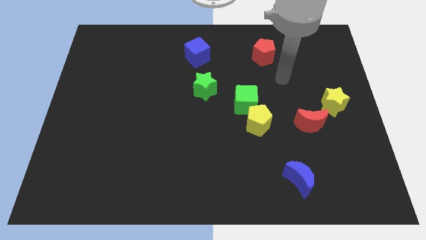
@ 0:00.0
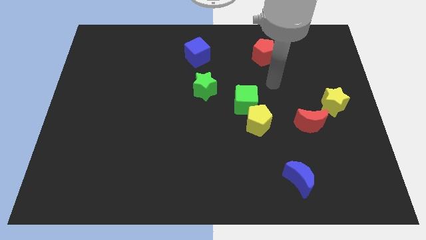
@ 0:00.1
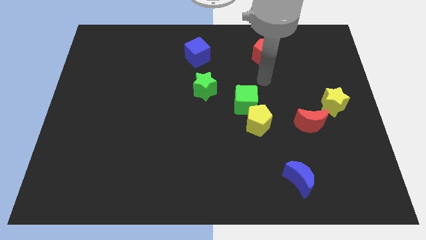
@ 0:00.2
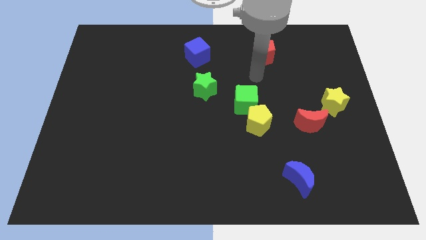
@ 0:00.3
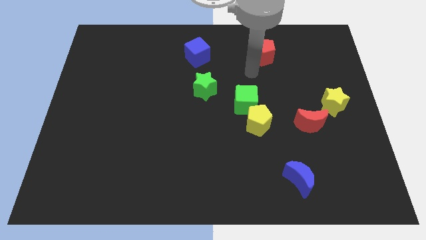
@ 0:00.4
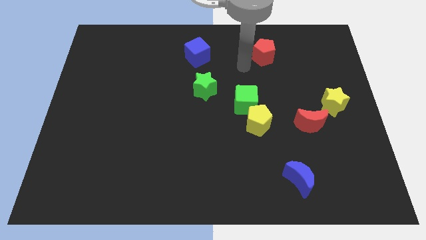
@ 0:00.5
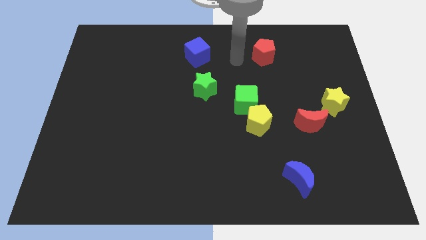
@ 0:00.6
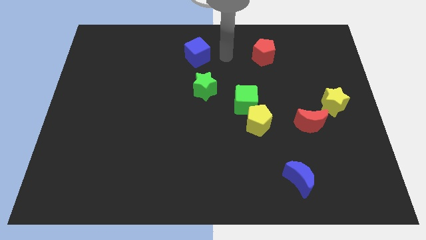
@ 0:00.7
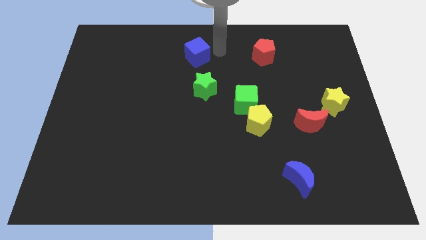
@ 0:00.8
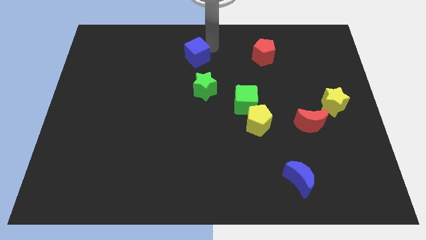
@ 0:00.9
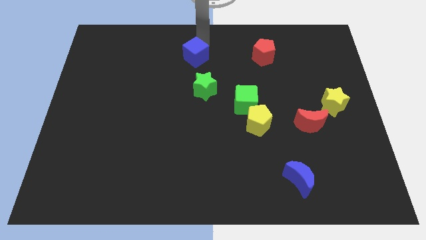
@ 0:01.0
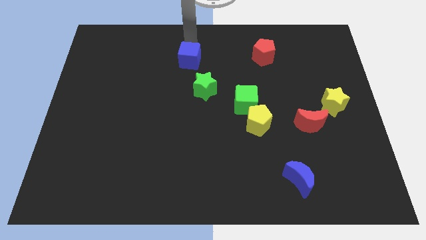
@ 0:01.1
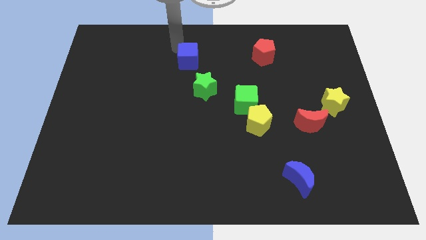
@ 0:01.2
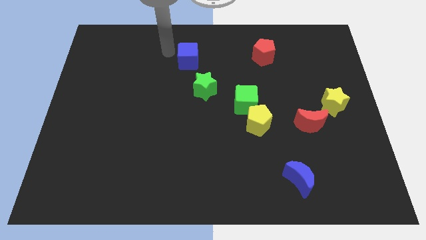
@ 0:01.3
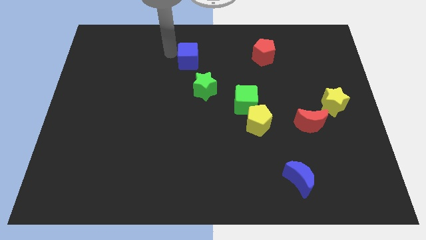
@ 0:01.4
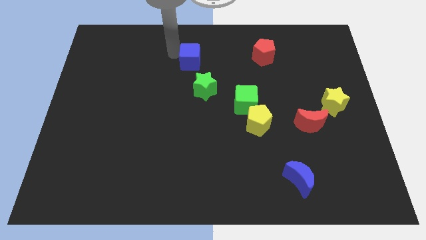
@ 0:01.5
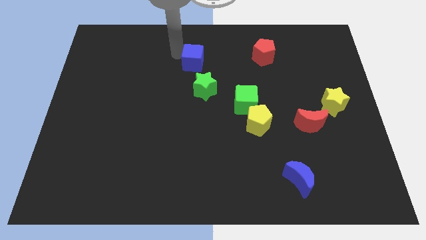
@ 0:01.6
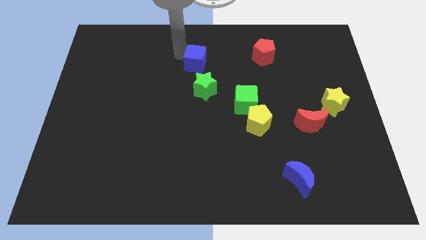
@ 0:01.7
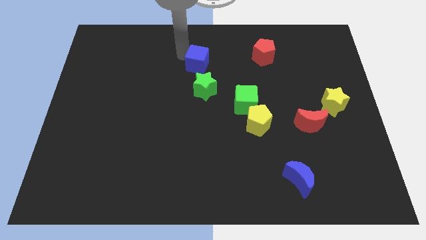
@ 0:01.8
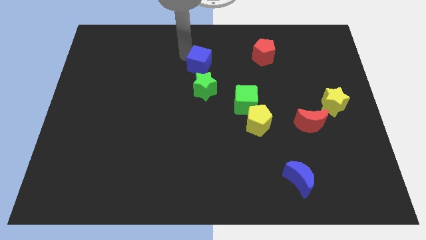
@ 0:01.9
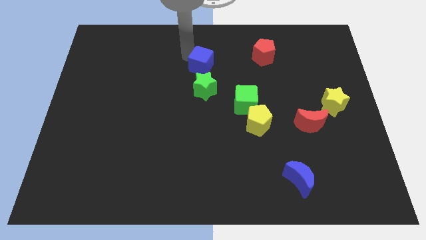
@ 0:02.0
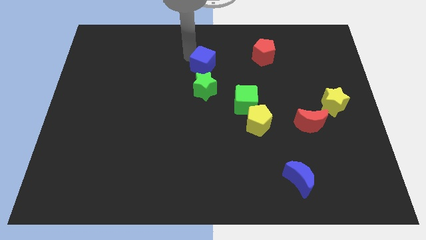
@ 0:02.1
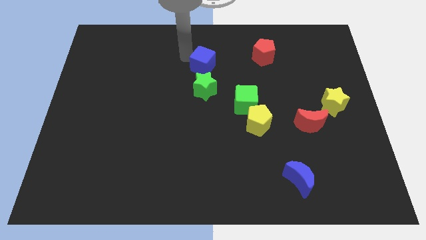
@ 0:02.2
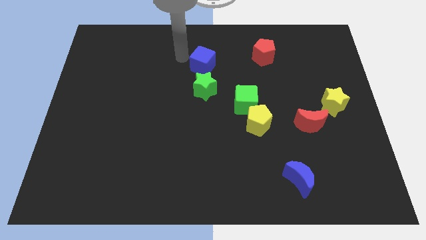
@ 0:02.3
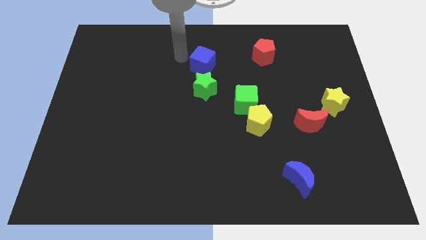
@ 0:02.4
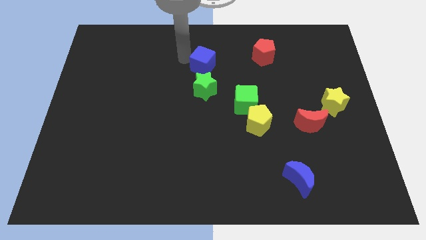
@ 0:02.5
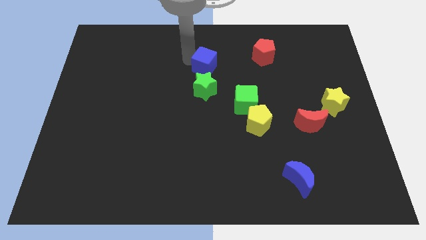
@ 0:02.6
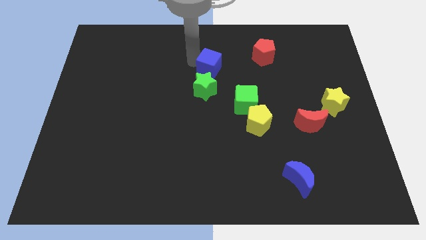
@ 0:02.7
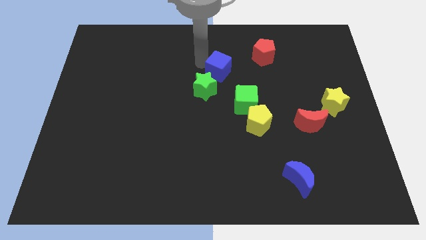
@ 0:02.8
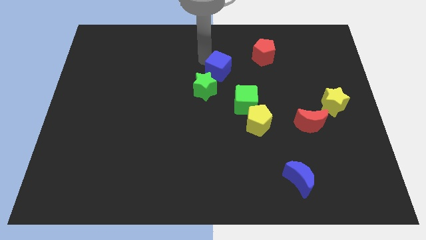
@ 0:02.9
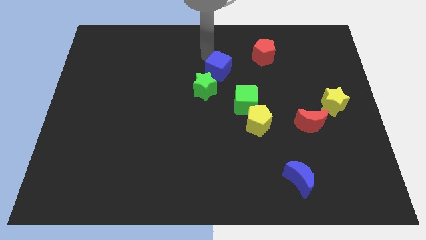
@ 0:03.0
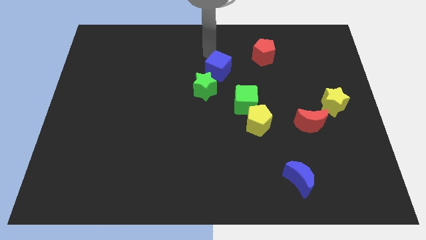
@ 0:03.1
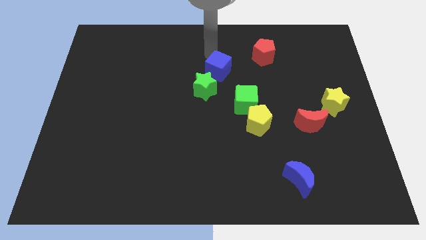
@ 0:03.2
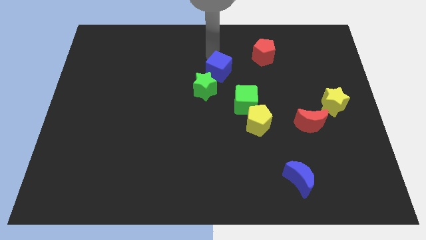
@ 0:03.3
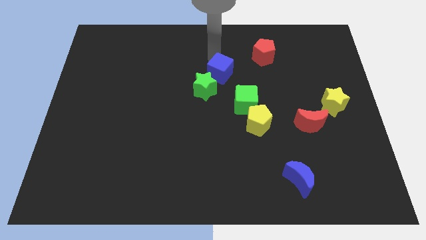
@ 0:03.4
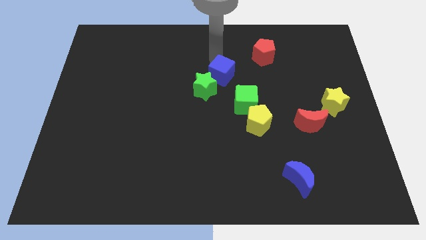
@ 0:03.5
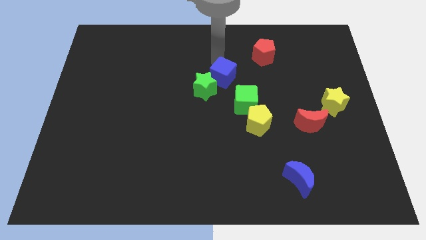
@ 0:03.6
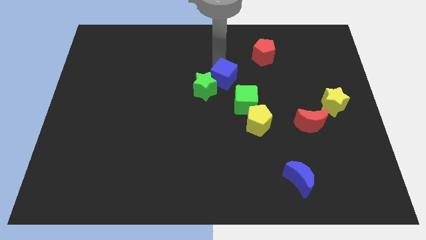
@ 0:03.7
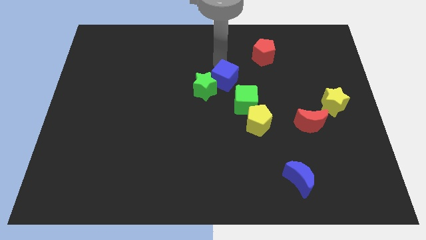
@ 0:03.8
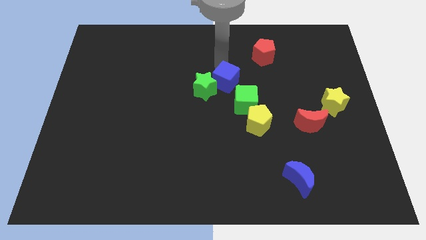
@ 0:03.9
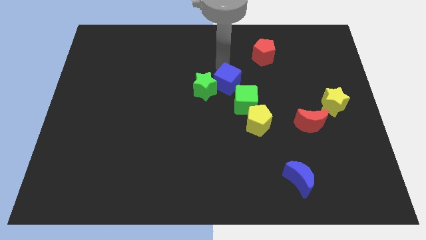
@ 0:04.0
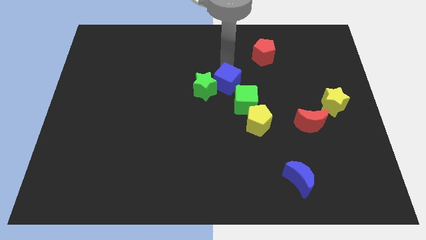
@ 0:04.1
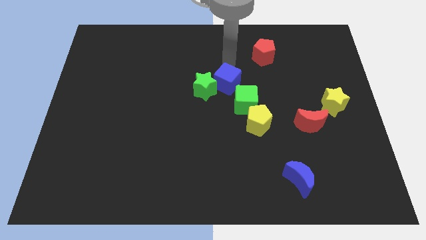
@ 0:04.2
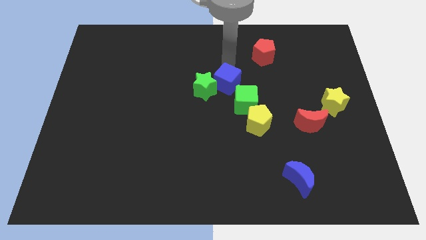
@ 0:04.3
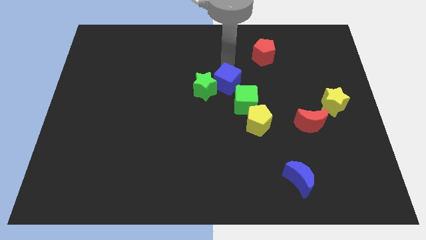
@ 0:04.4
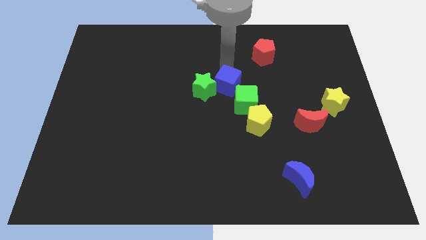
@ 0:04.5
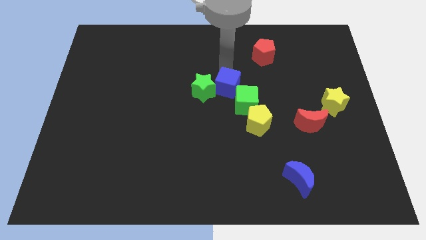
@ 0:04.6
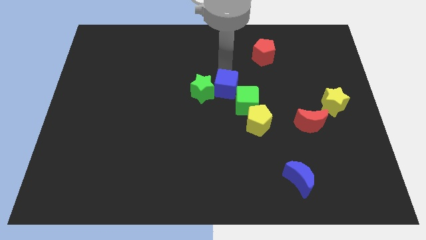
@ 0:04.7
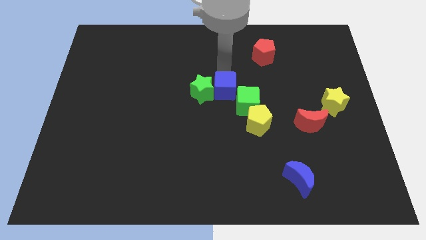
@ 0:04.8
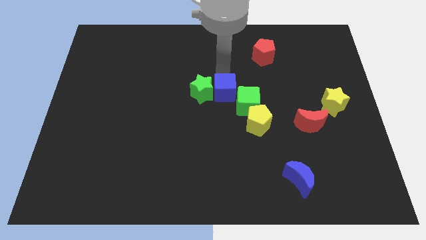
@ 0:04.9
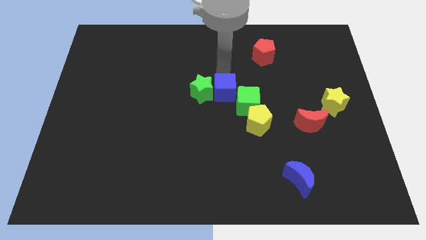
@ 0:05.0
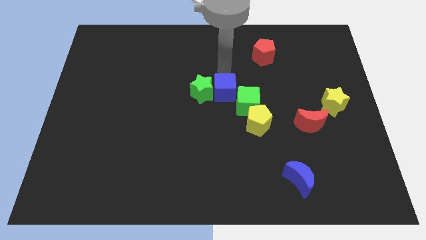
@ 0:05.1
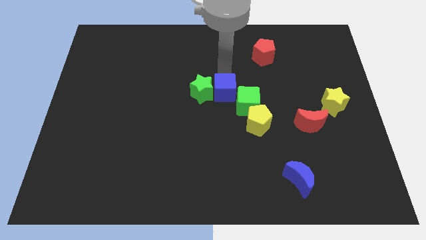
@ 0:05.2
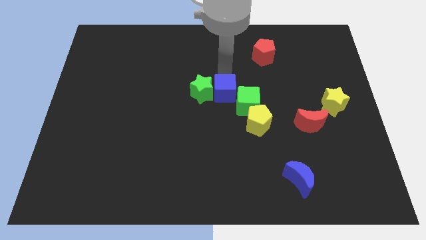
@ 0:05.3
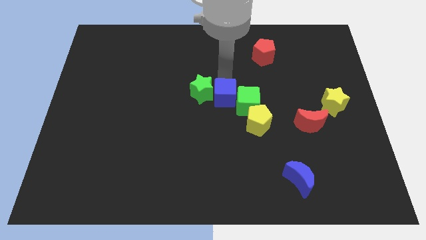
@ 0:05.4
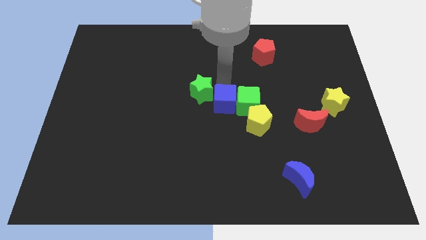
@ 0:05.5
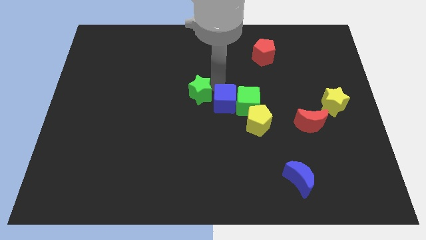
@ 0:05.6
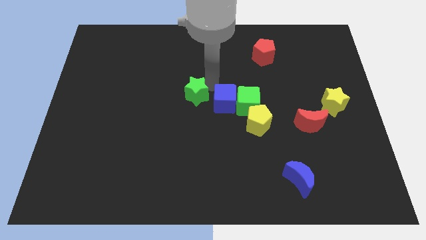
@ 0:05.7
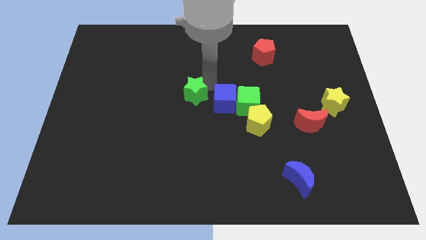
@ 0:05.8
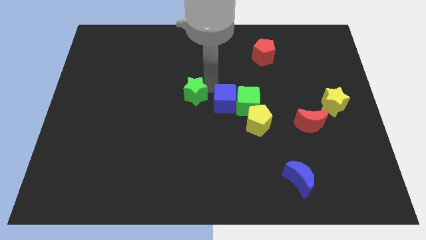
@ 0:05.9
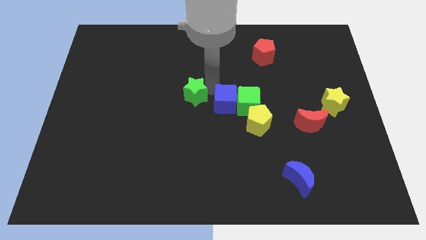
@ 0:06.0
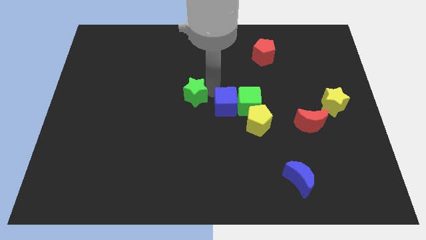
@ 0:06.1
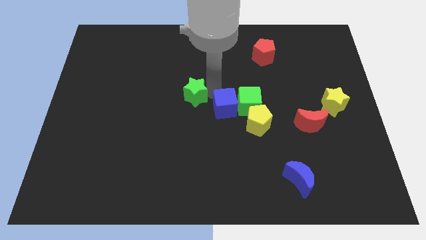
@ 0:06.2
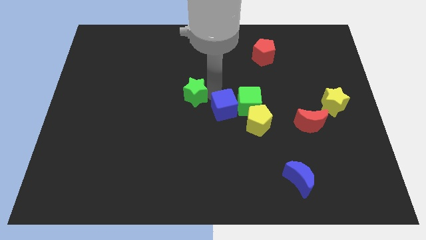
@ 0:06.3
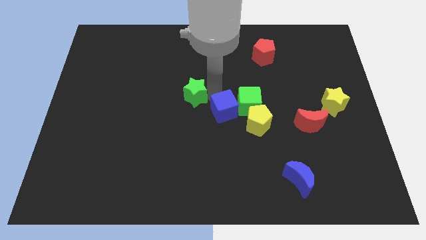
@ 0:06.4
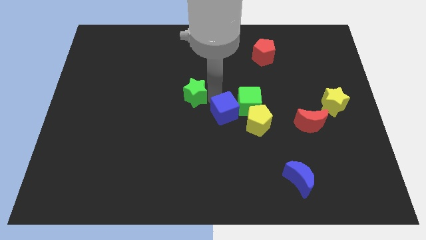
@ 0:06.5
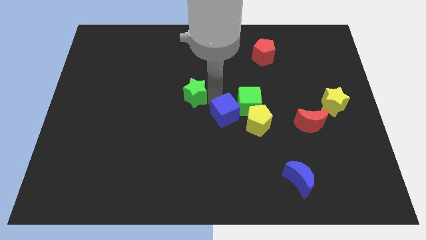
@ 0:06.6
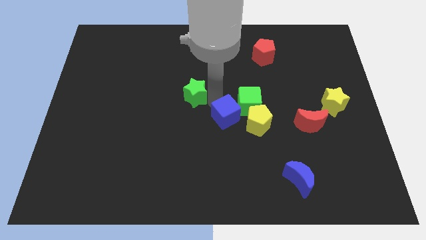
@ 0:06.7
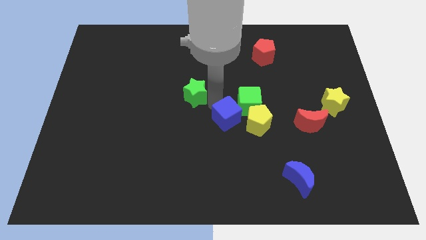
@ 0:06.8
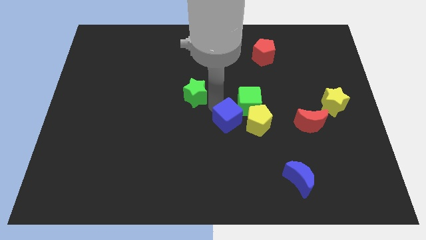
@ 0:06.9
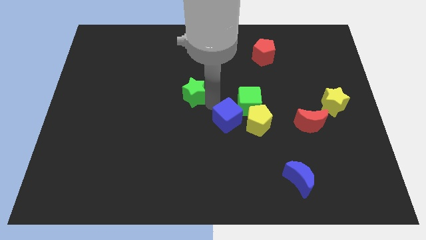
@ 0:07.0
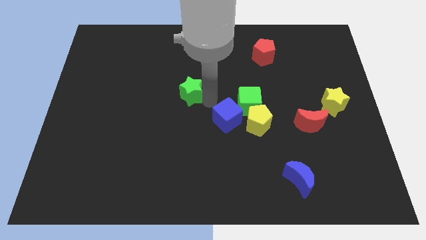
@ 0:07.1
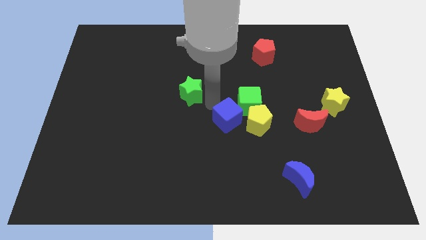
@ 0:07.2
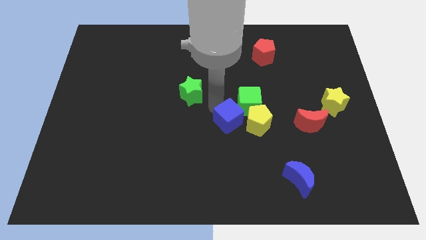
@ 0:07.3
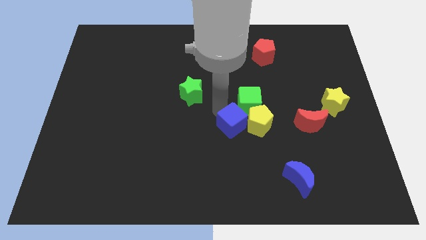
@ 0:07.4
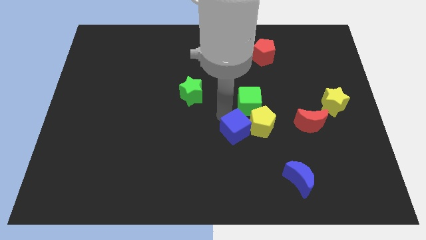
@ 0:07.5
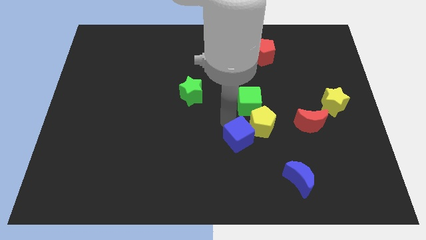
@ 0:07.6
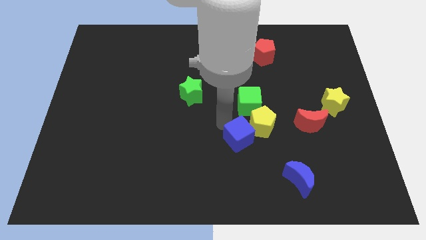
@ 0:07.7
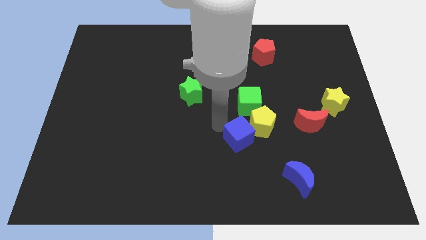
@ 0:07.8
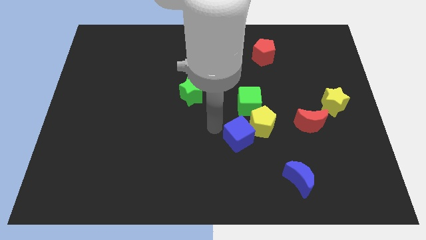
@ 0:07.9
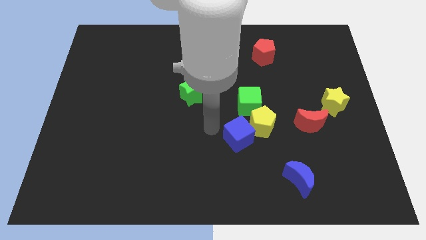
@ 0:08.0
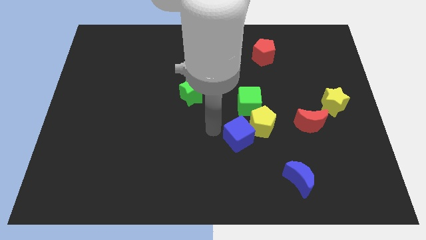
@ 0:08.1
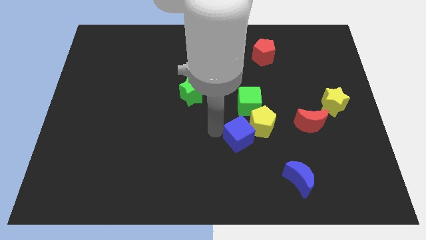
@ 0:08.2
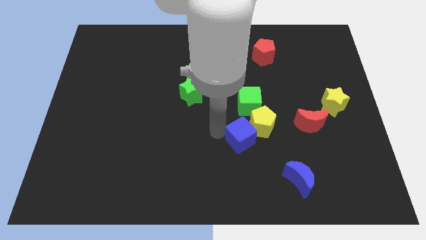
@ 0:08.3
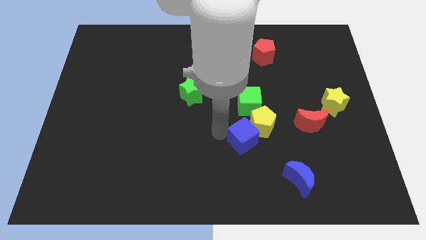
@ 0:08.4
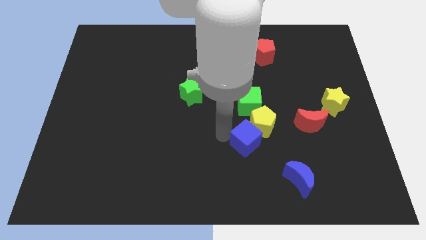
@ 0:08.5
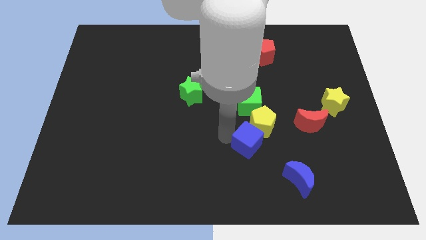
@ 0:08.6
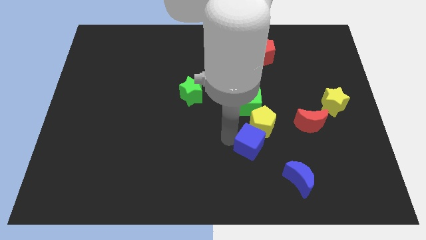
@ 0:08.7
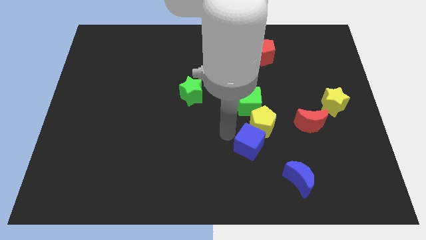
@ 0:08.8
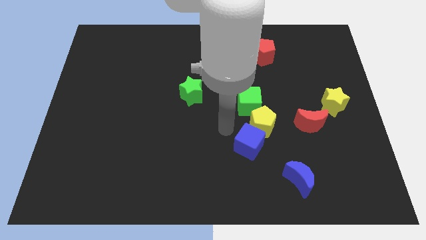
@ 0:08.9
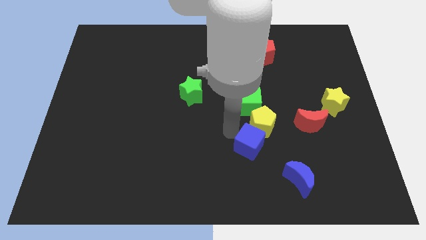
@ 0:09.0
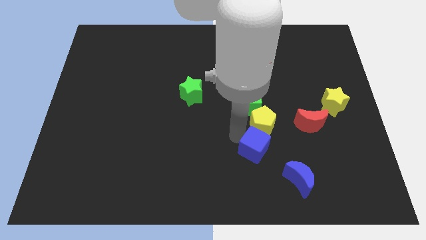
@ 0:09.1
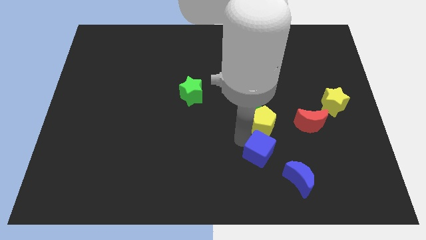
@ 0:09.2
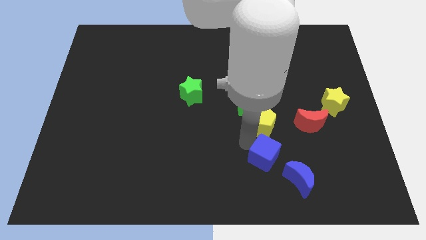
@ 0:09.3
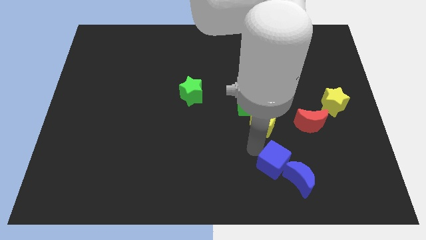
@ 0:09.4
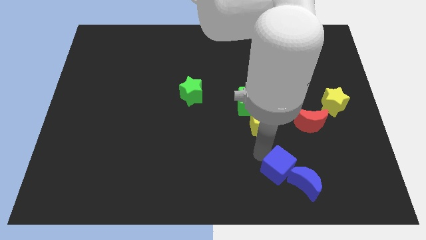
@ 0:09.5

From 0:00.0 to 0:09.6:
push the blue cube next to the blue moon
